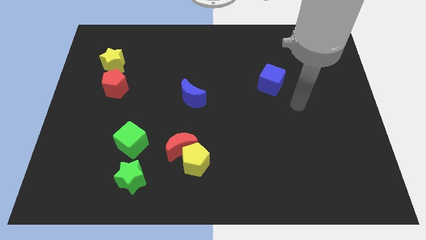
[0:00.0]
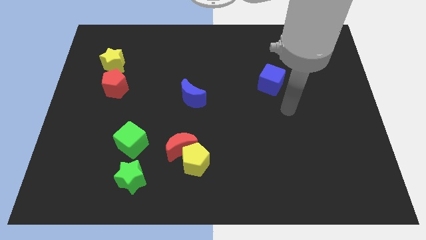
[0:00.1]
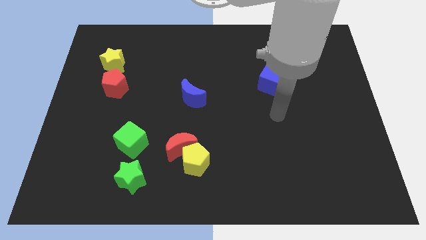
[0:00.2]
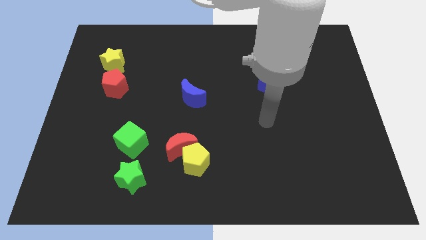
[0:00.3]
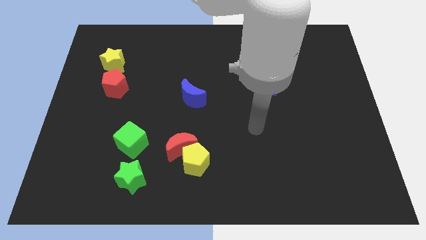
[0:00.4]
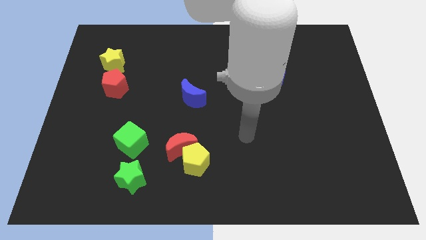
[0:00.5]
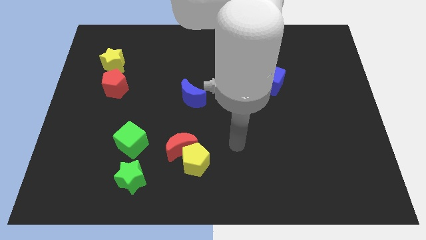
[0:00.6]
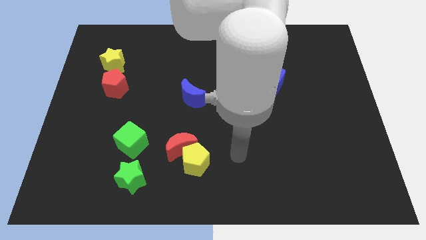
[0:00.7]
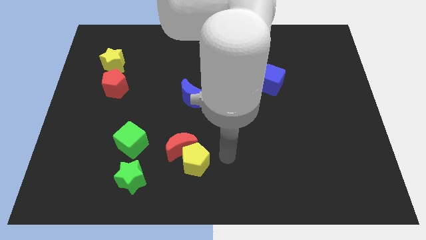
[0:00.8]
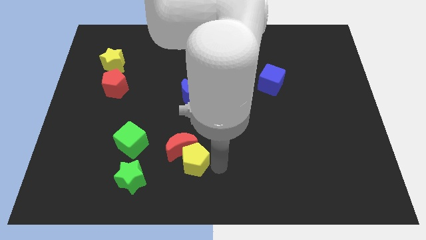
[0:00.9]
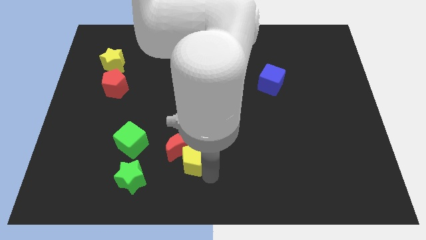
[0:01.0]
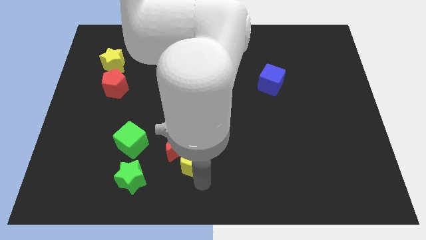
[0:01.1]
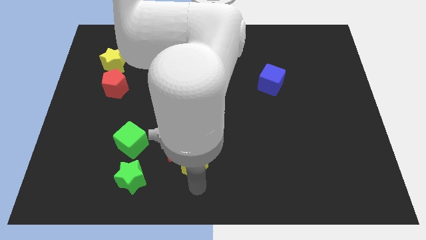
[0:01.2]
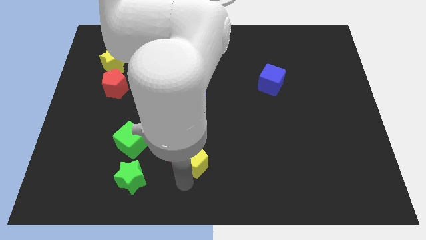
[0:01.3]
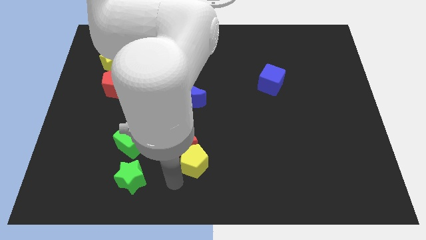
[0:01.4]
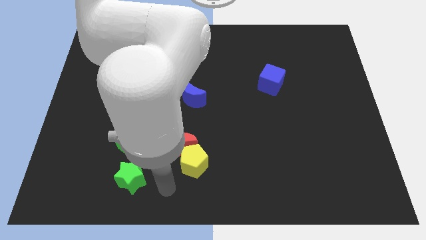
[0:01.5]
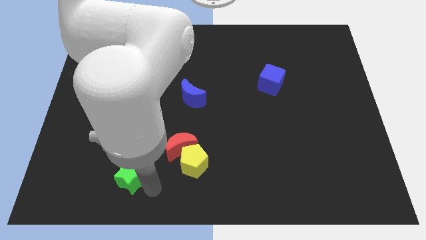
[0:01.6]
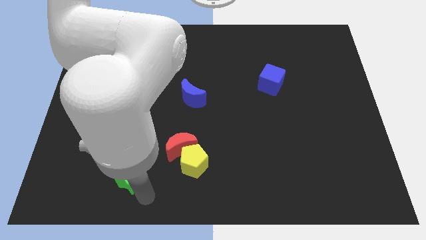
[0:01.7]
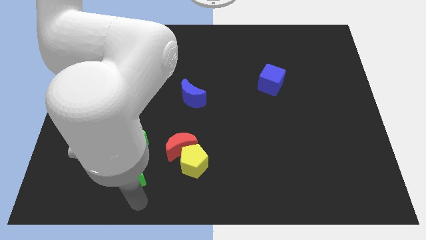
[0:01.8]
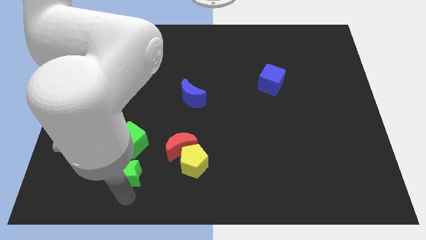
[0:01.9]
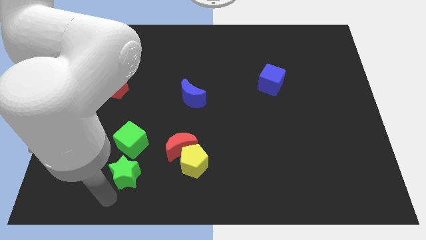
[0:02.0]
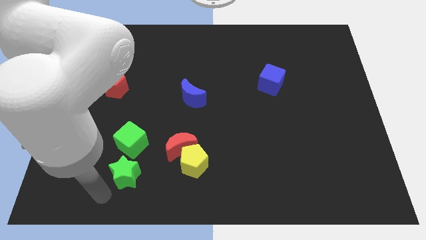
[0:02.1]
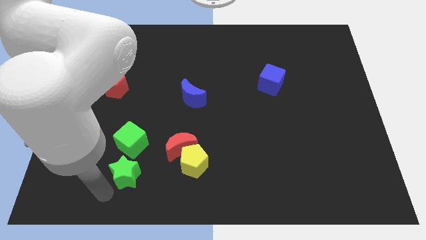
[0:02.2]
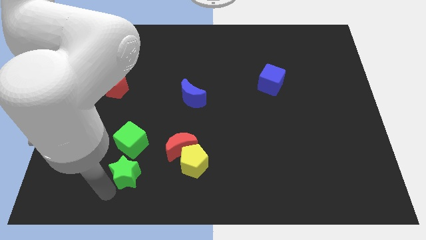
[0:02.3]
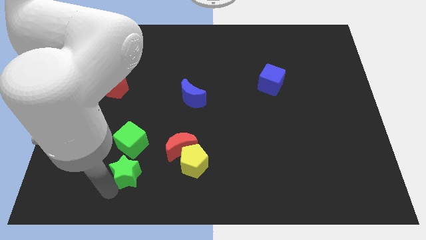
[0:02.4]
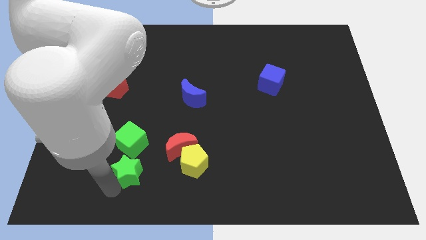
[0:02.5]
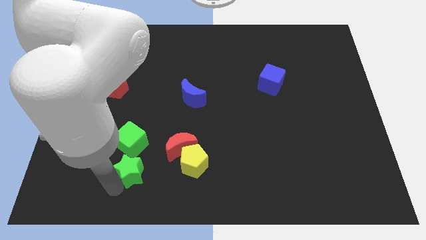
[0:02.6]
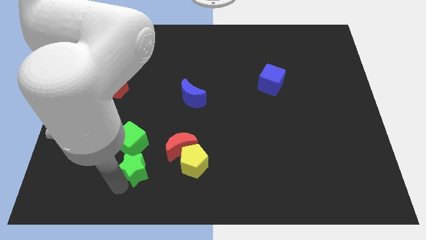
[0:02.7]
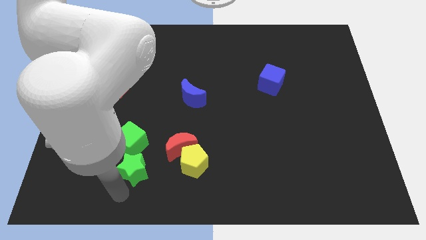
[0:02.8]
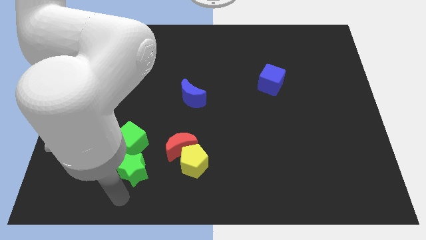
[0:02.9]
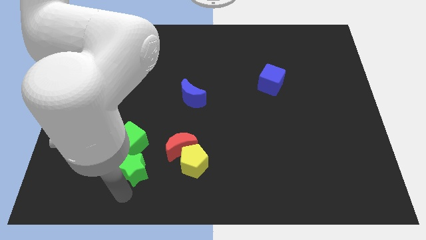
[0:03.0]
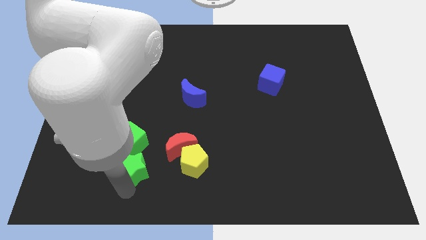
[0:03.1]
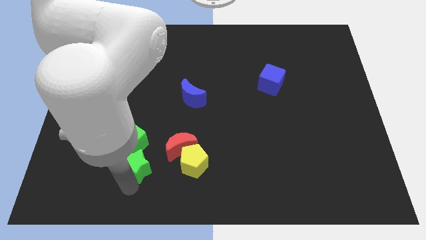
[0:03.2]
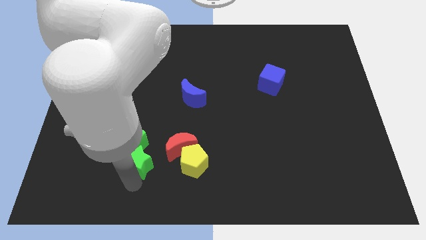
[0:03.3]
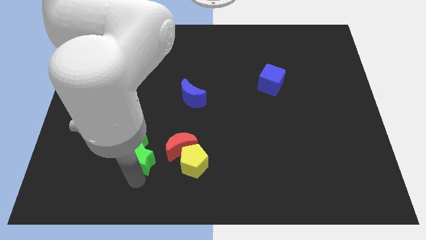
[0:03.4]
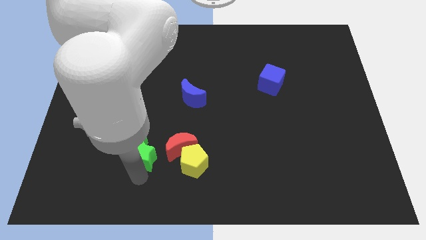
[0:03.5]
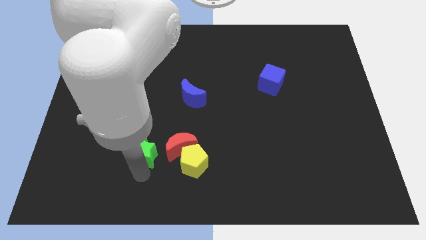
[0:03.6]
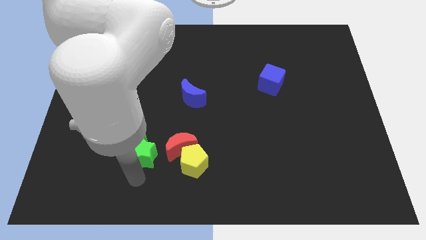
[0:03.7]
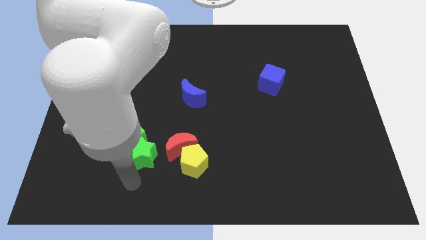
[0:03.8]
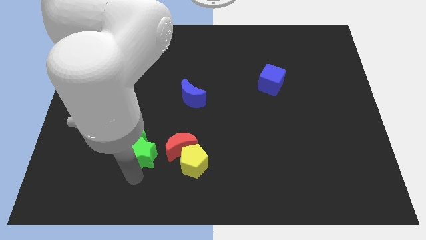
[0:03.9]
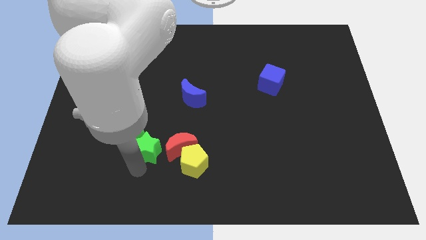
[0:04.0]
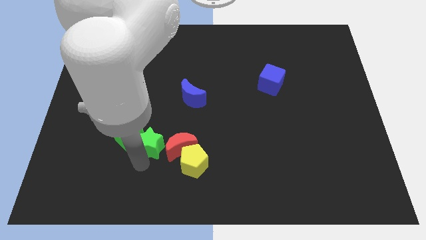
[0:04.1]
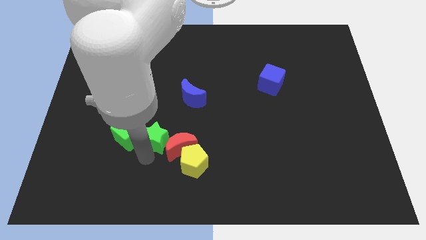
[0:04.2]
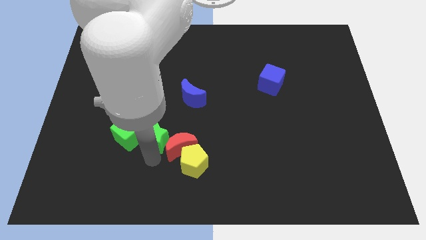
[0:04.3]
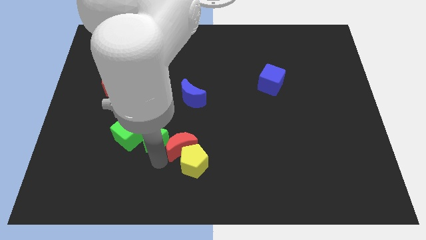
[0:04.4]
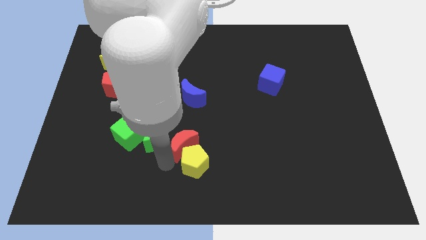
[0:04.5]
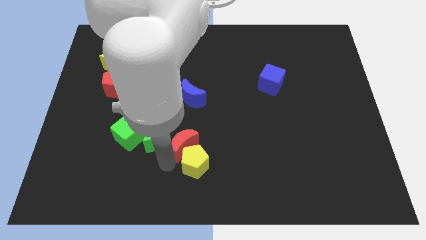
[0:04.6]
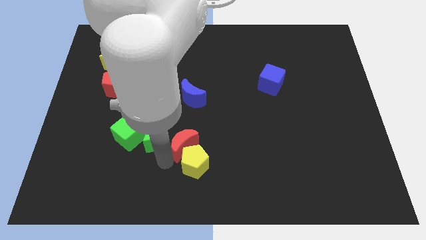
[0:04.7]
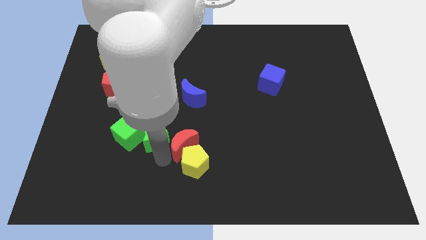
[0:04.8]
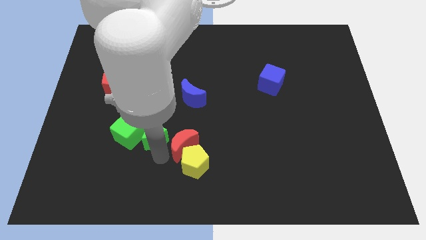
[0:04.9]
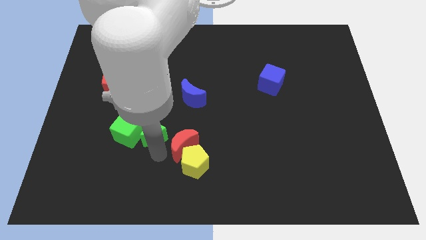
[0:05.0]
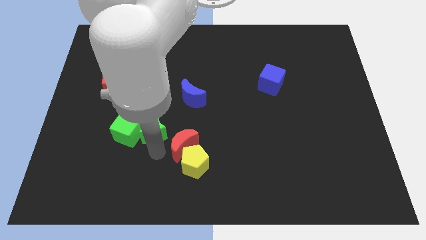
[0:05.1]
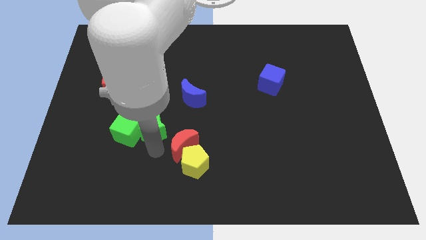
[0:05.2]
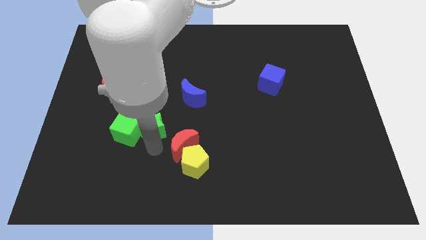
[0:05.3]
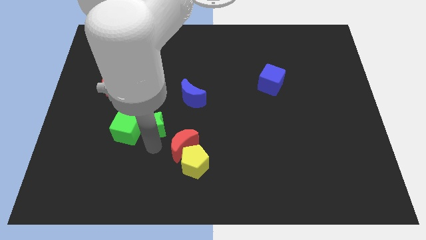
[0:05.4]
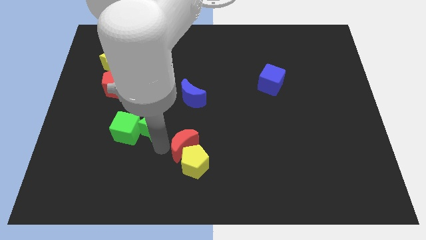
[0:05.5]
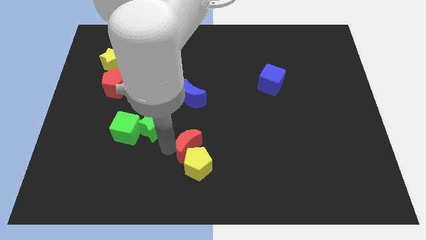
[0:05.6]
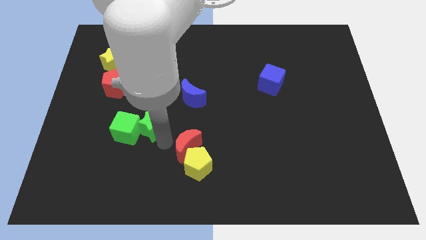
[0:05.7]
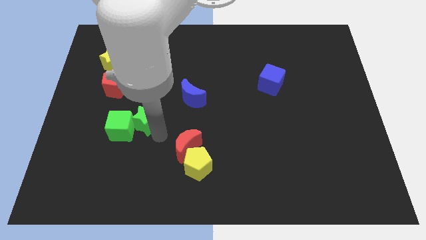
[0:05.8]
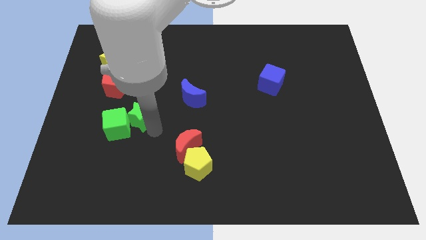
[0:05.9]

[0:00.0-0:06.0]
move the green star diagonally down and to the right of the red pentagon

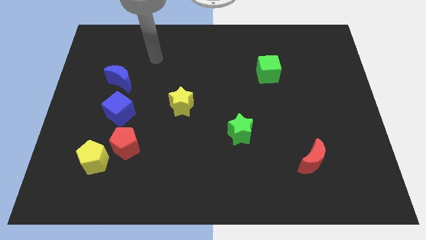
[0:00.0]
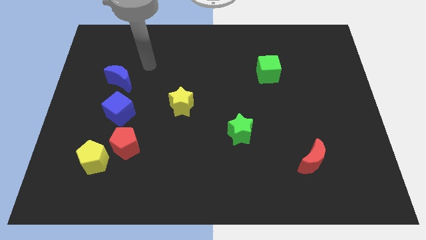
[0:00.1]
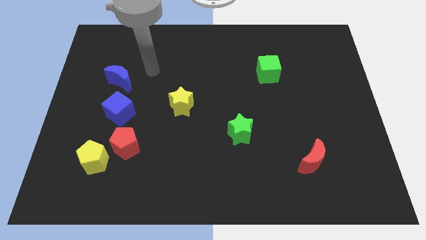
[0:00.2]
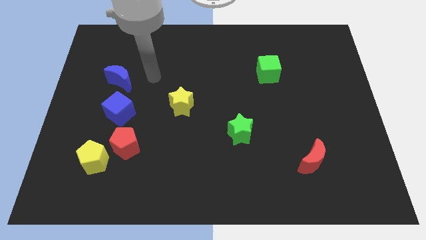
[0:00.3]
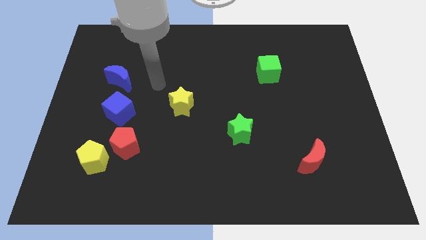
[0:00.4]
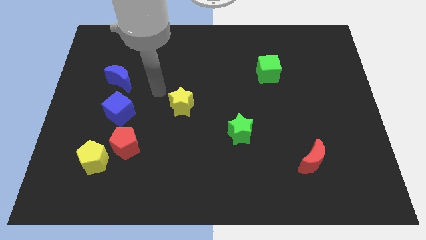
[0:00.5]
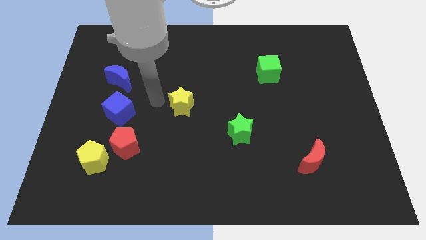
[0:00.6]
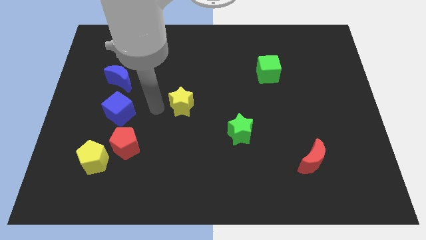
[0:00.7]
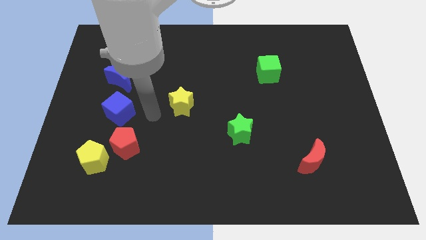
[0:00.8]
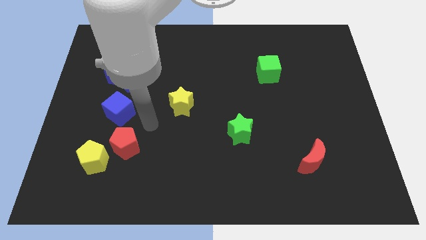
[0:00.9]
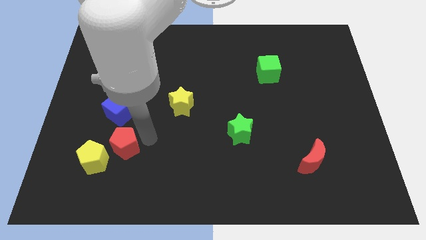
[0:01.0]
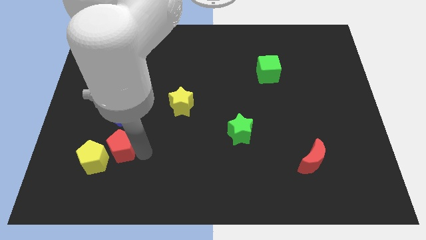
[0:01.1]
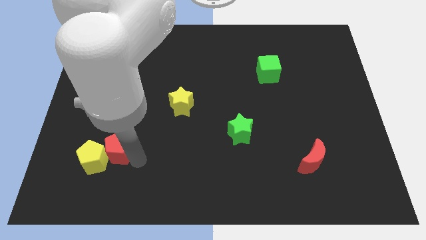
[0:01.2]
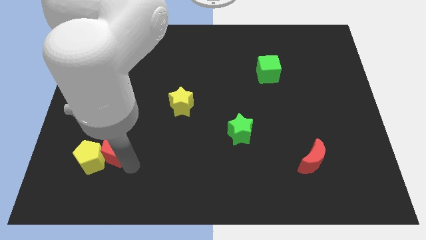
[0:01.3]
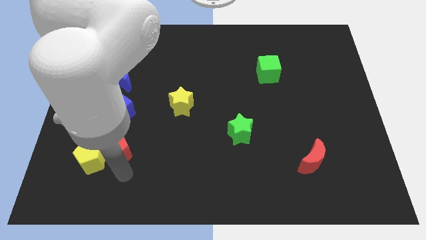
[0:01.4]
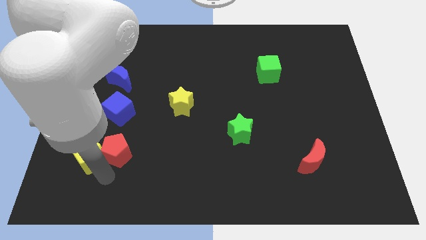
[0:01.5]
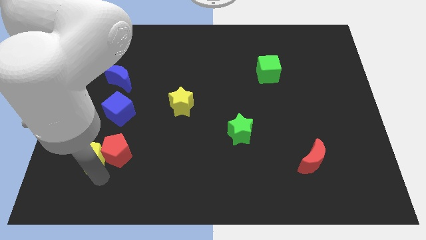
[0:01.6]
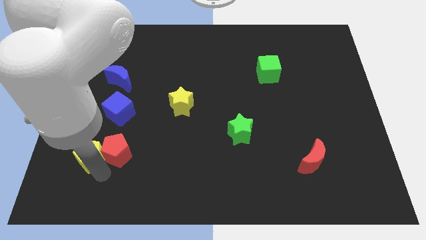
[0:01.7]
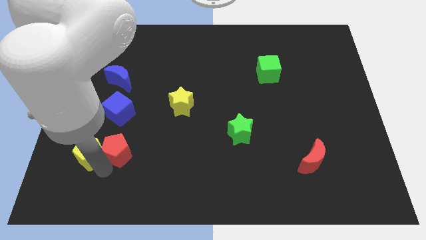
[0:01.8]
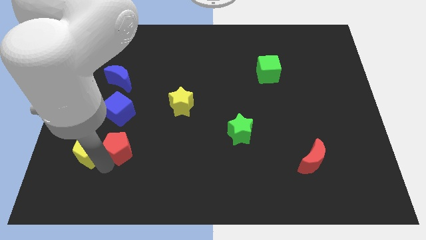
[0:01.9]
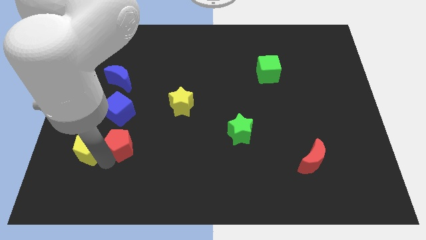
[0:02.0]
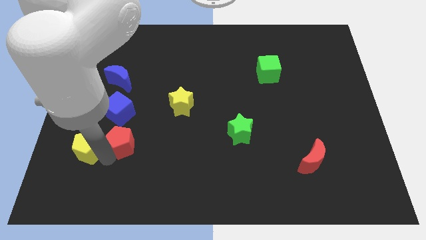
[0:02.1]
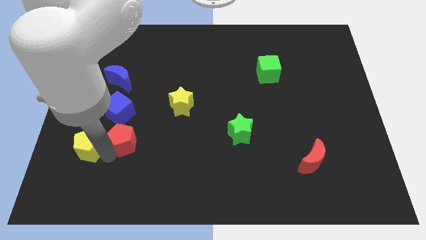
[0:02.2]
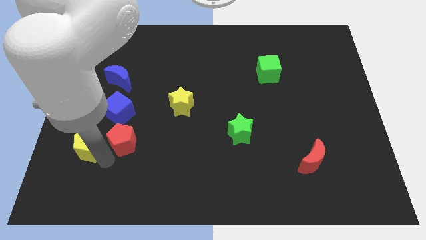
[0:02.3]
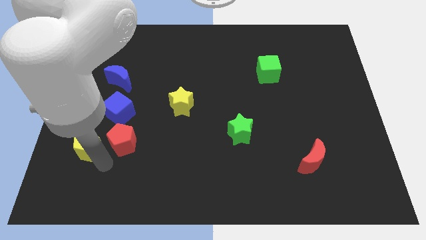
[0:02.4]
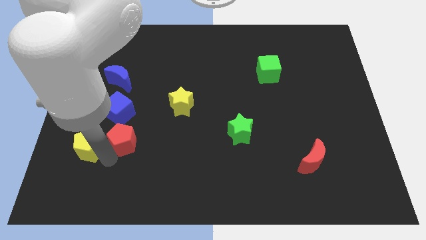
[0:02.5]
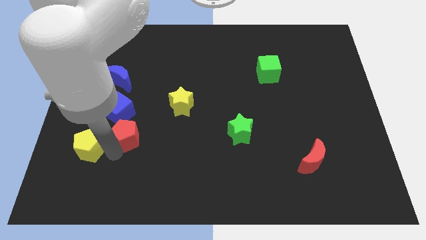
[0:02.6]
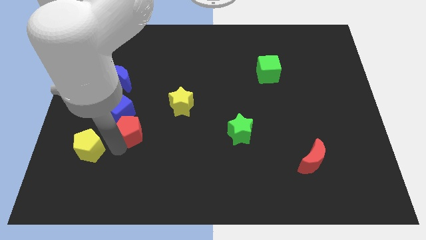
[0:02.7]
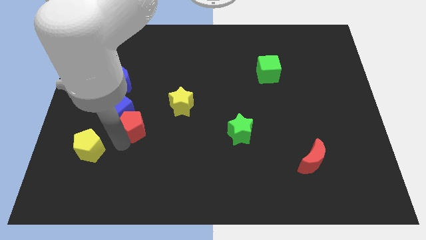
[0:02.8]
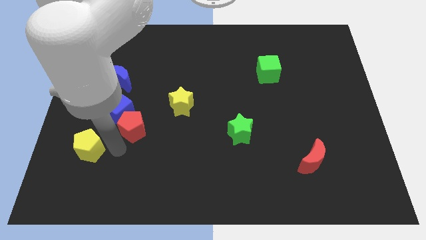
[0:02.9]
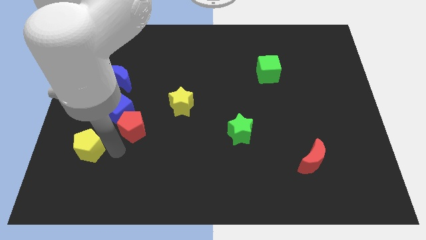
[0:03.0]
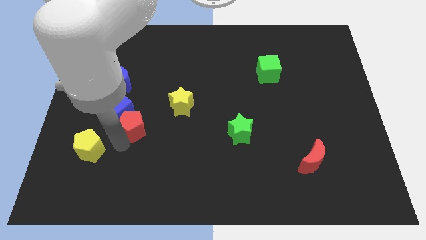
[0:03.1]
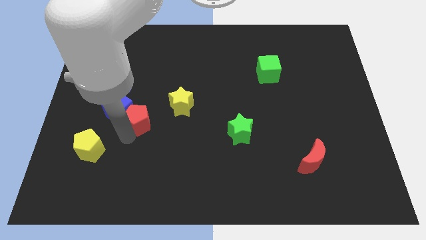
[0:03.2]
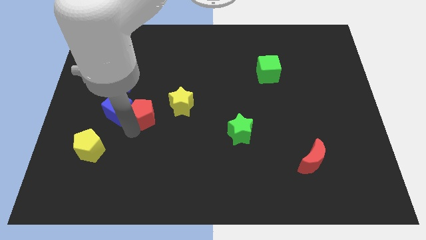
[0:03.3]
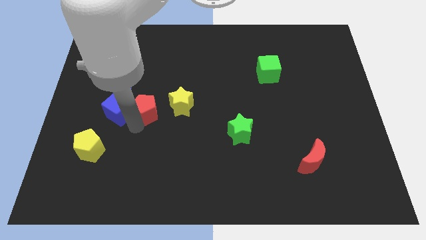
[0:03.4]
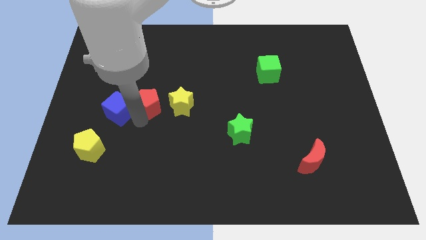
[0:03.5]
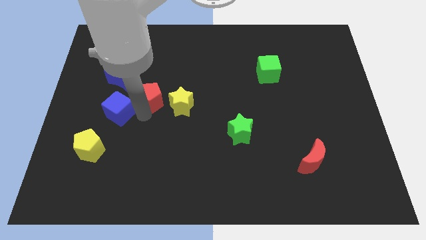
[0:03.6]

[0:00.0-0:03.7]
move the red pentagon to the top left side of the yellow star
